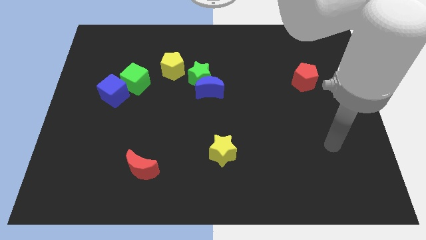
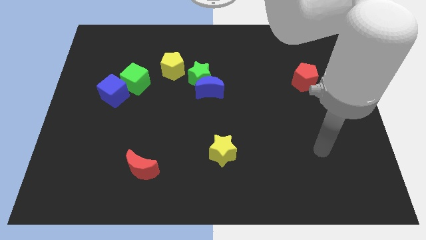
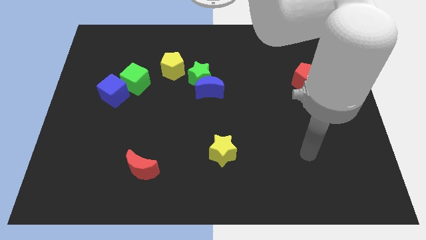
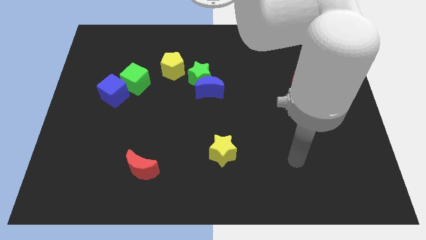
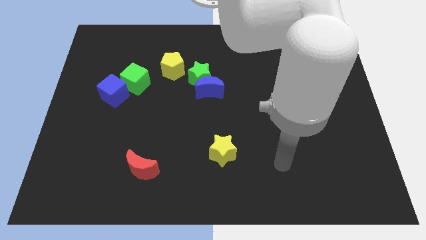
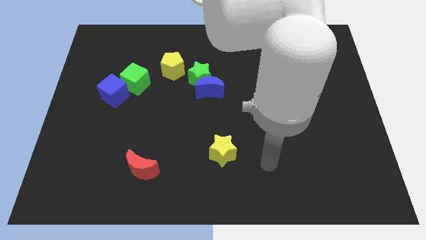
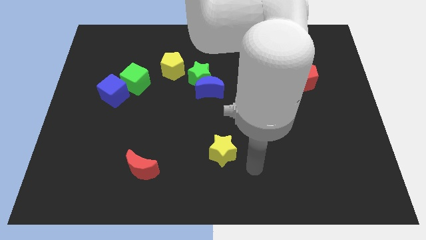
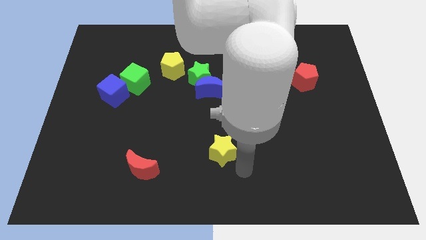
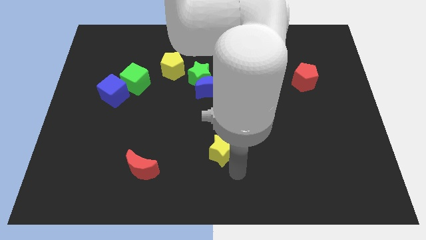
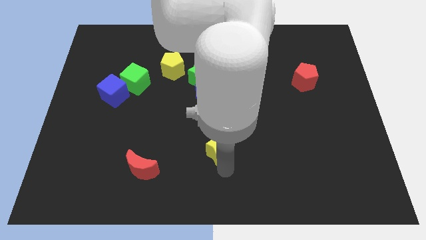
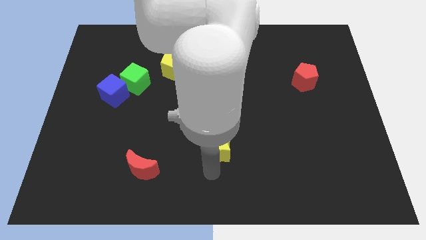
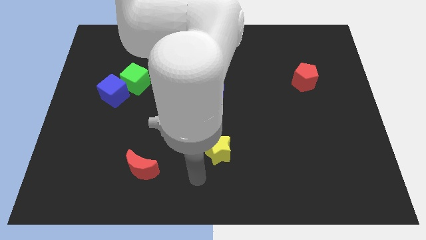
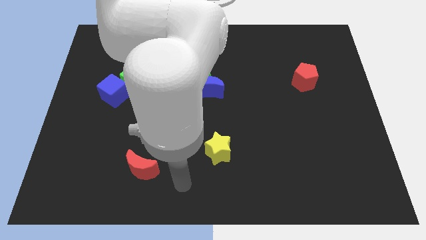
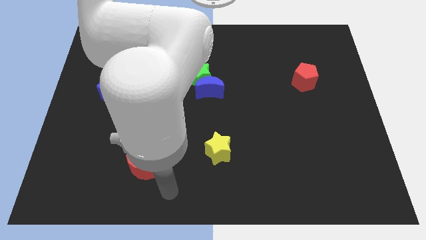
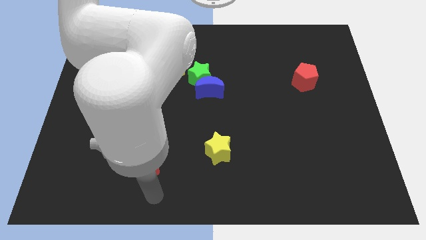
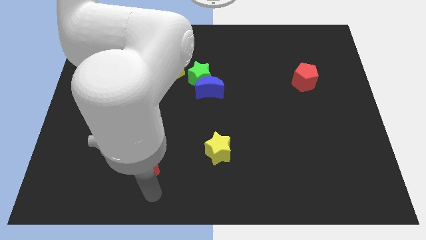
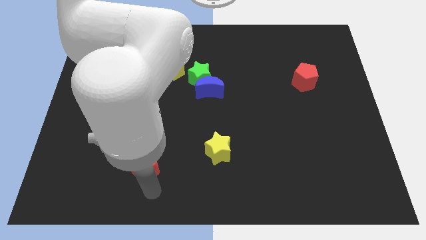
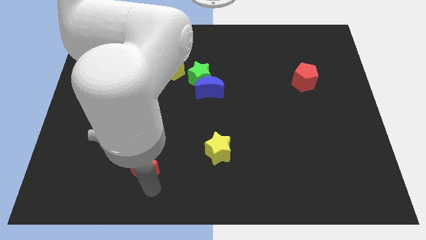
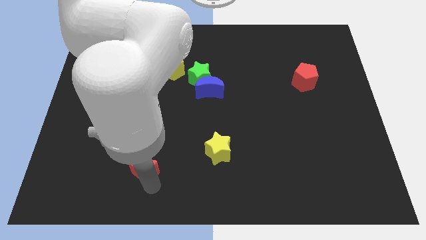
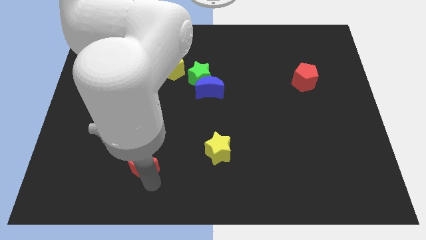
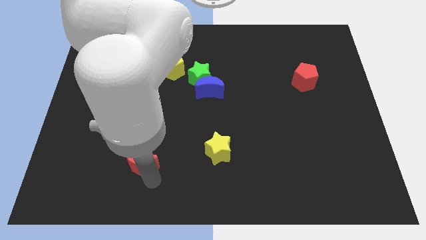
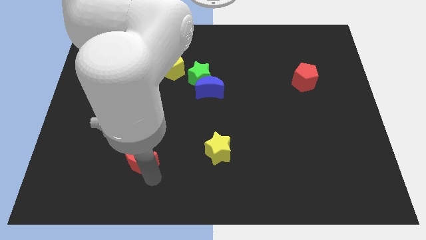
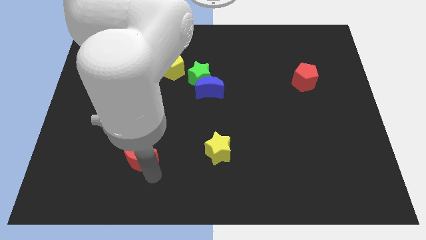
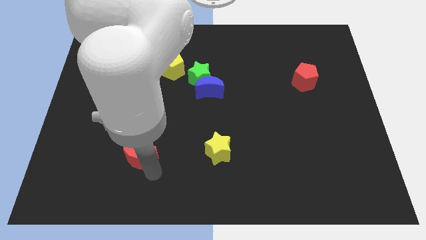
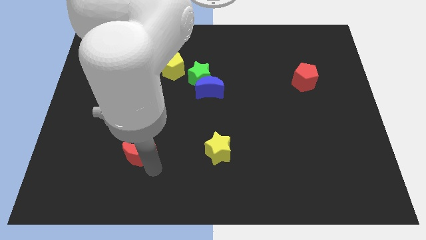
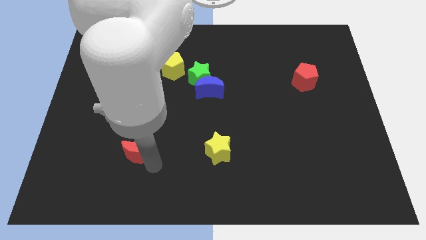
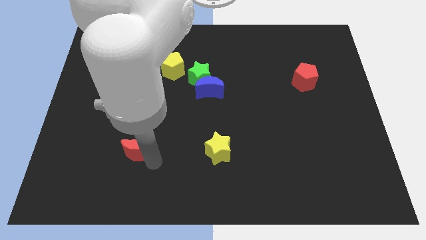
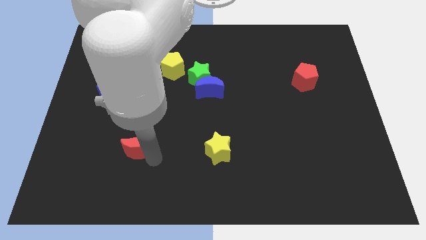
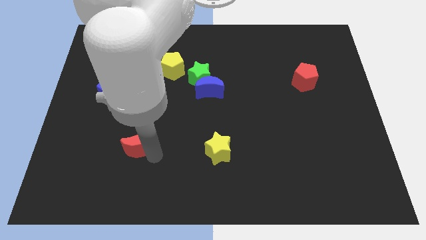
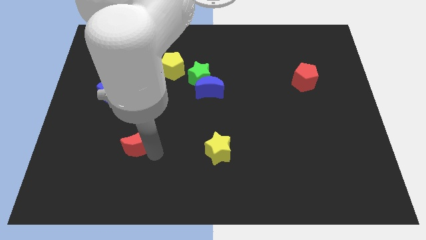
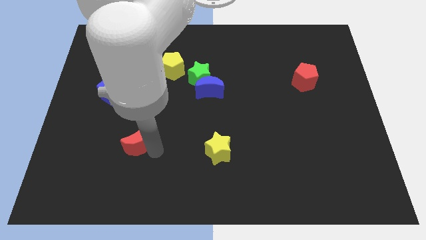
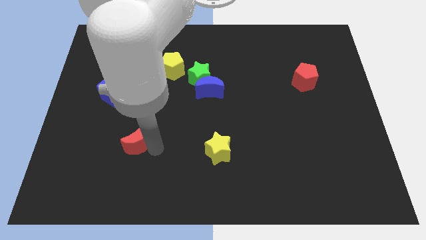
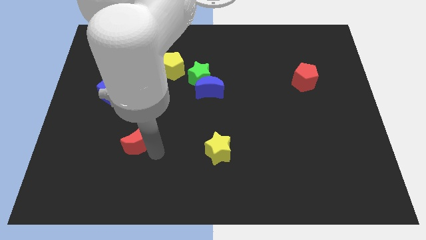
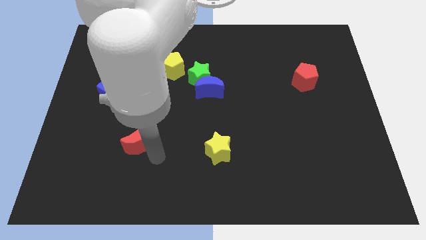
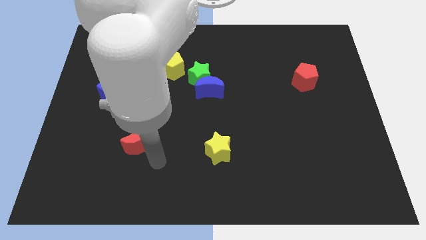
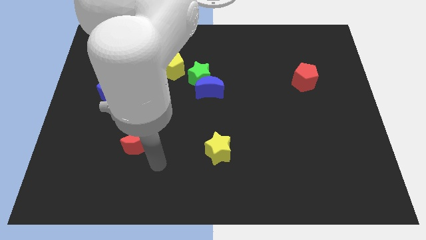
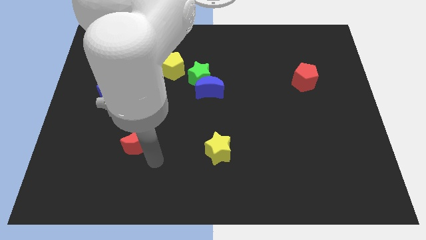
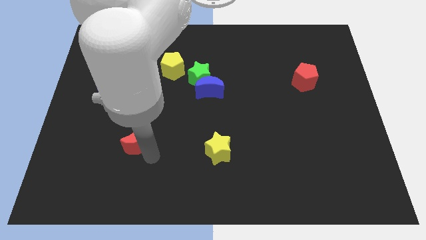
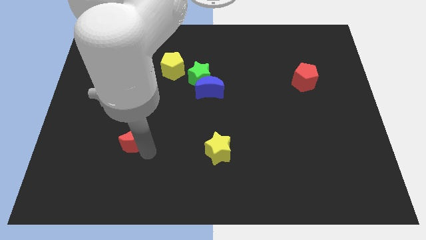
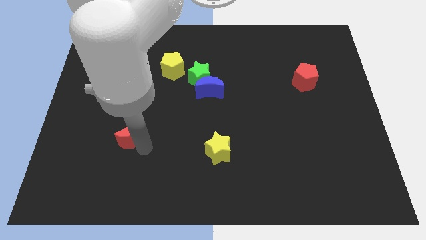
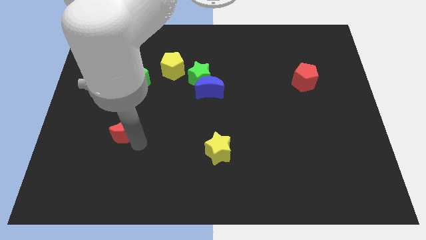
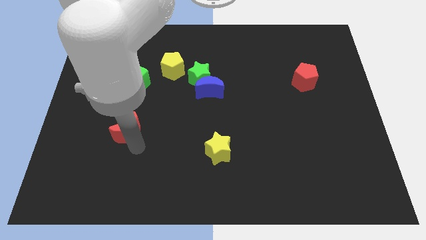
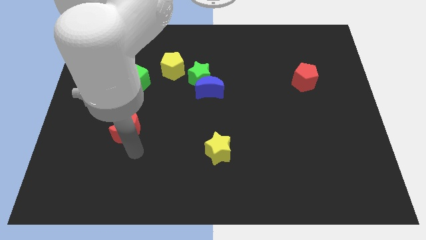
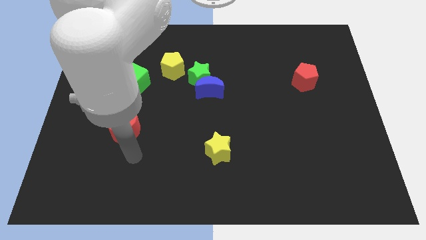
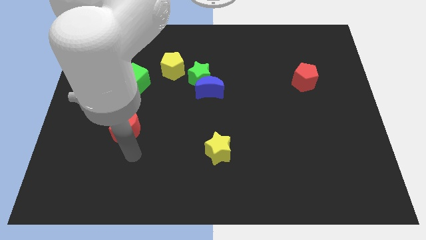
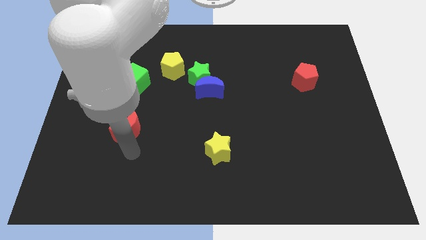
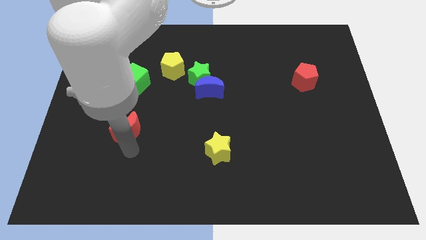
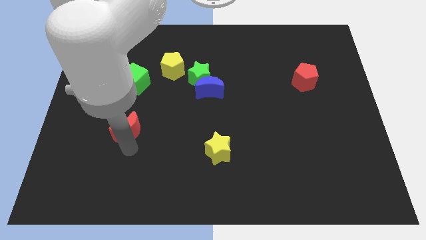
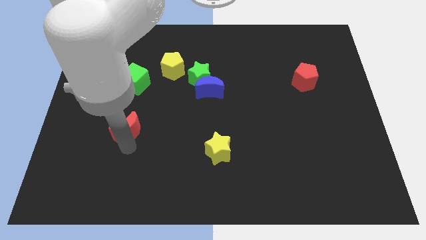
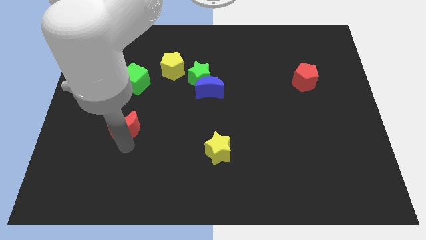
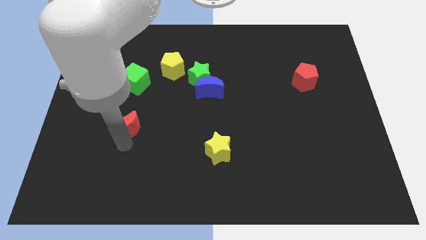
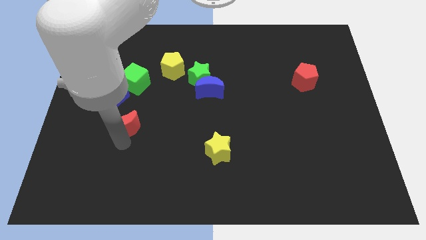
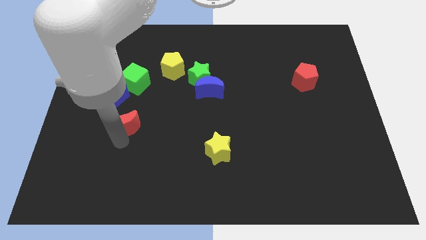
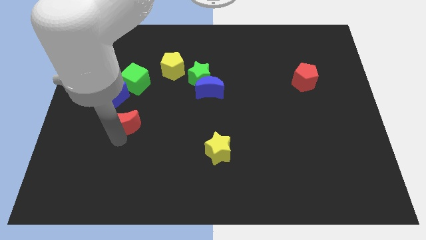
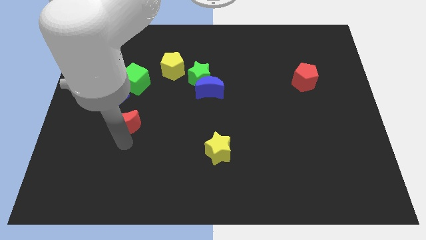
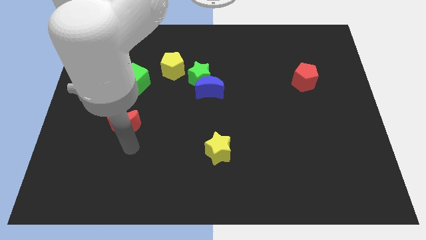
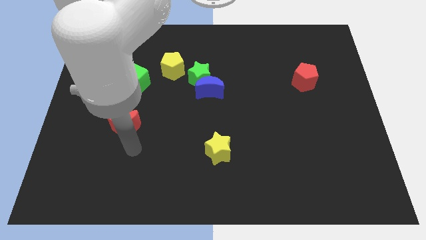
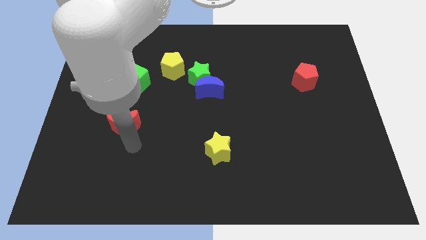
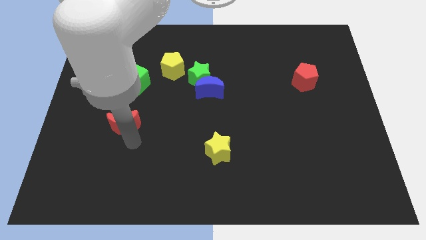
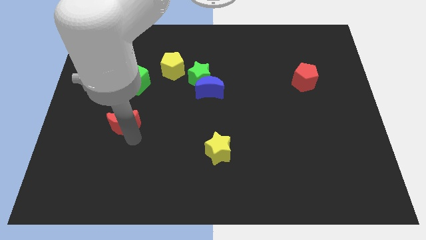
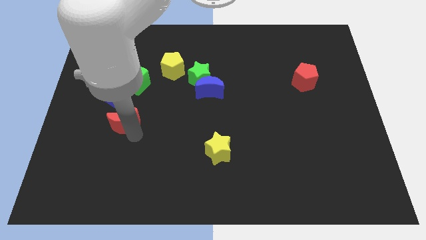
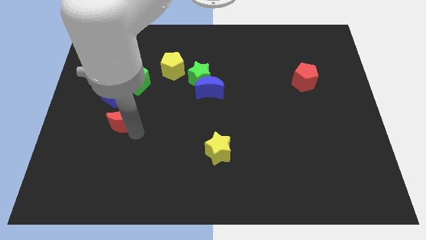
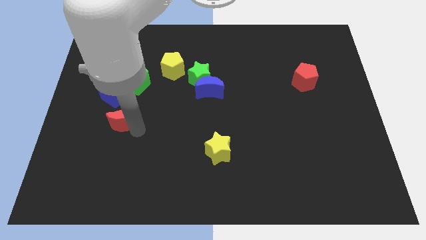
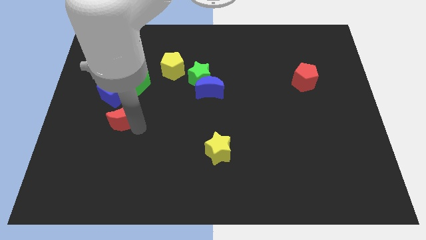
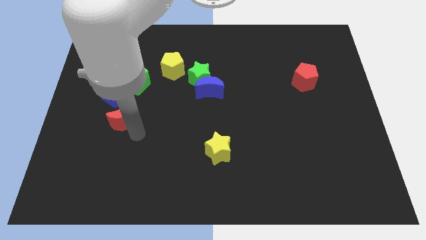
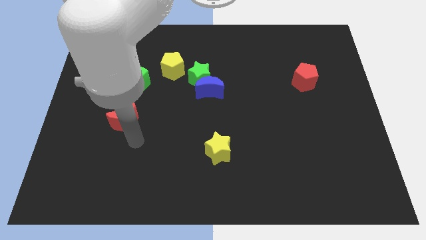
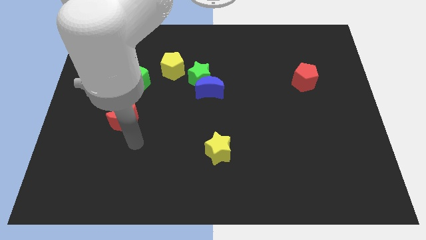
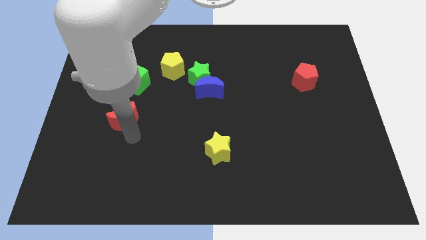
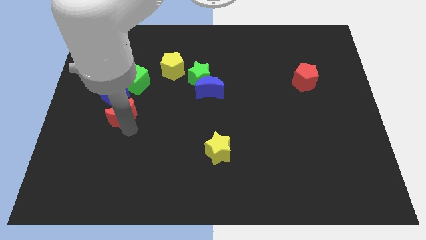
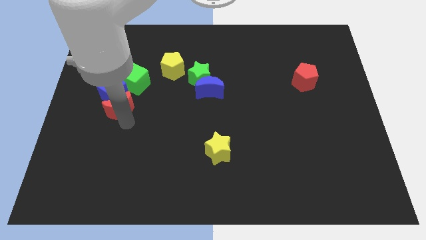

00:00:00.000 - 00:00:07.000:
move the red moon towards the blue cube
